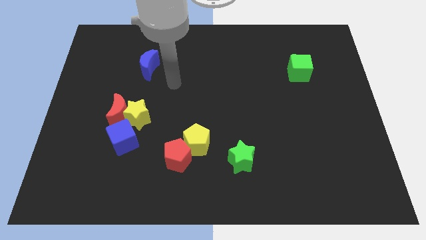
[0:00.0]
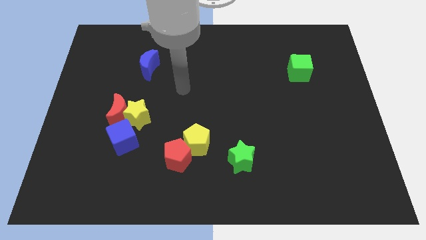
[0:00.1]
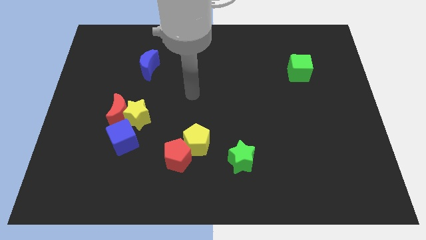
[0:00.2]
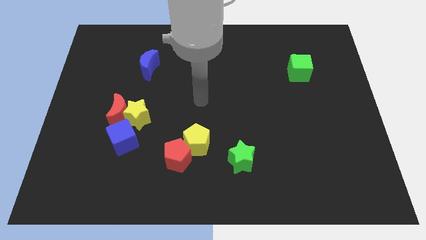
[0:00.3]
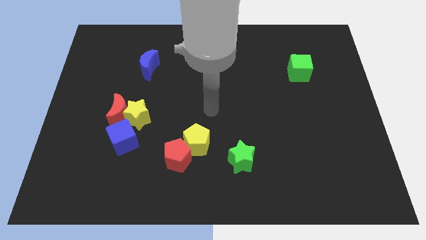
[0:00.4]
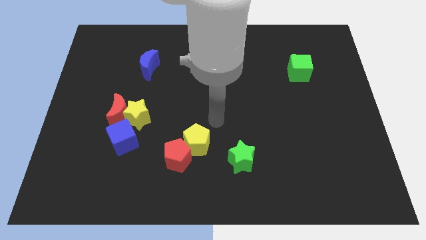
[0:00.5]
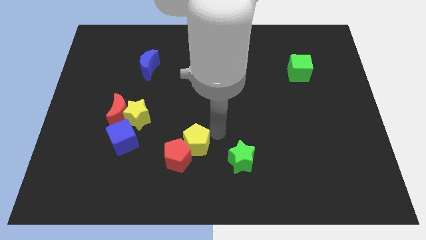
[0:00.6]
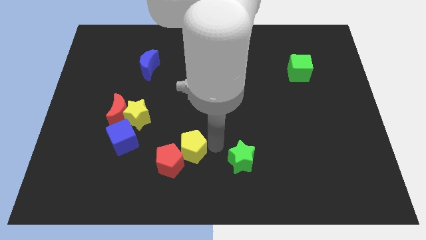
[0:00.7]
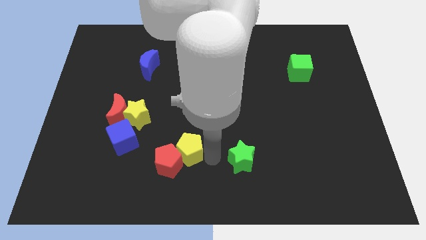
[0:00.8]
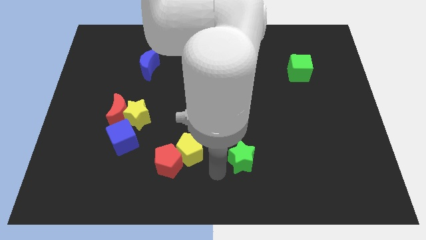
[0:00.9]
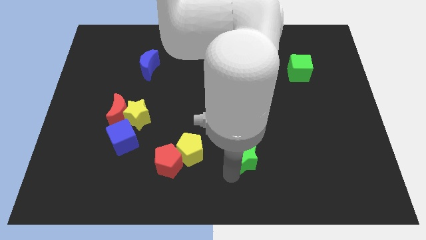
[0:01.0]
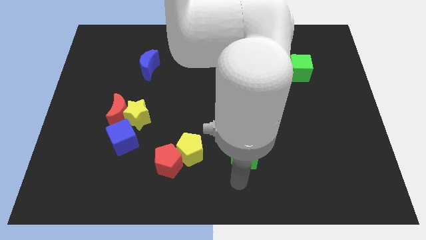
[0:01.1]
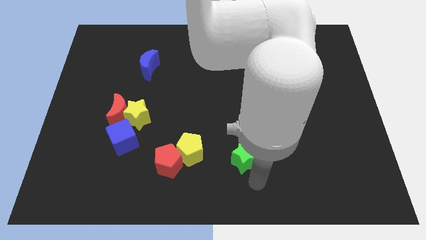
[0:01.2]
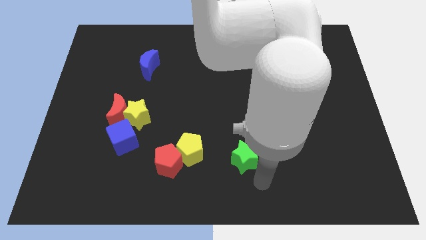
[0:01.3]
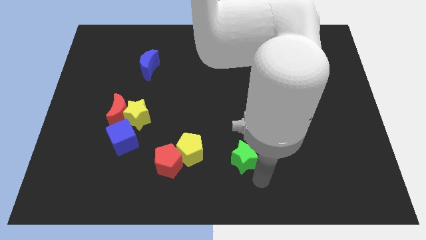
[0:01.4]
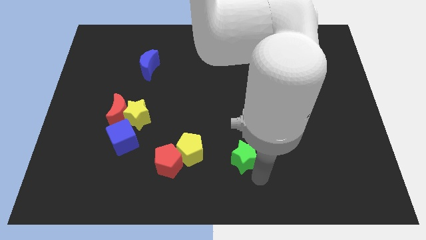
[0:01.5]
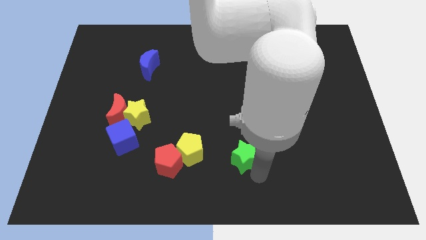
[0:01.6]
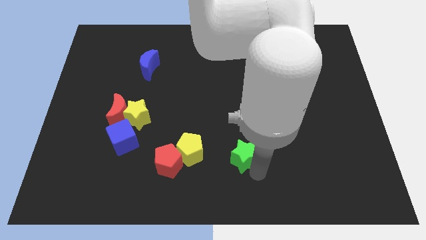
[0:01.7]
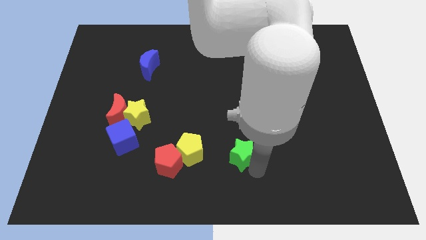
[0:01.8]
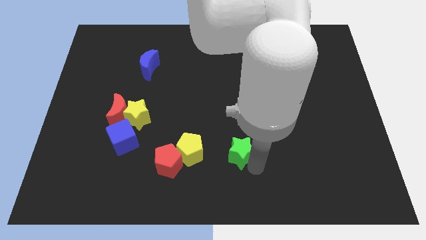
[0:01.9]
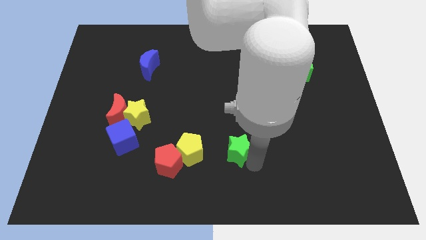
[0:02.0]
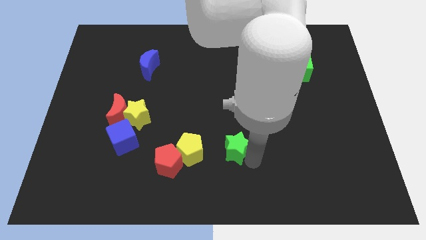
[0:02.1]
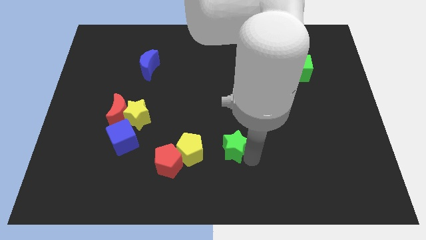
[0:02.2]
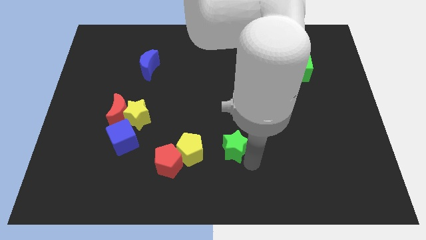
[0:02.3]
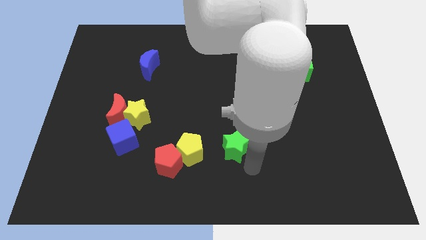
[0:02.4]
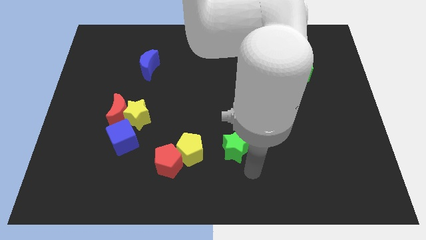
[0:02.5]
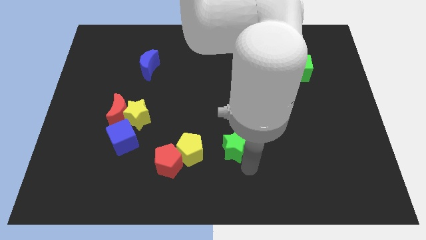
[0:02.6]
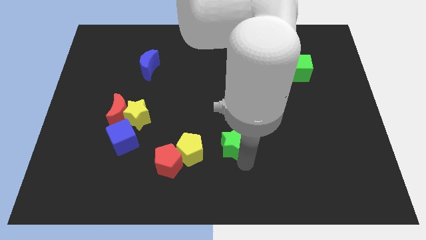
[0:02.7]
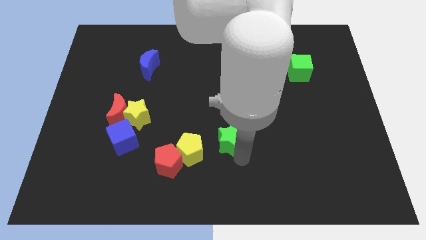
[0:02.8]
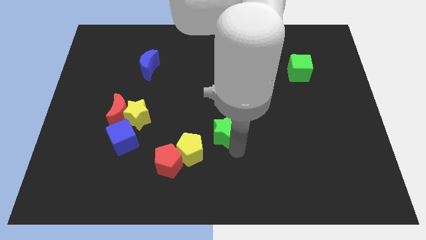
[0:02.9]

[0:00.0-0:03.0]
slightly push the green star upwards and left

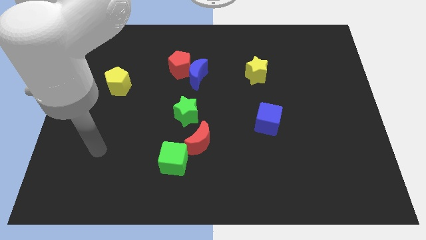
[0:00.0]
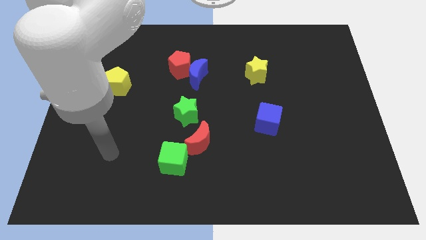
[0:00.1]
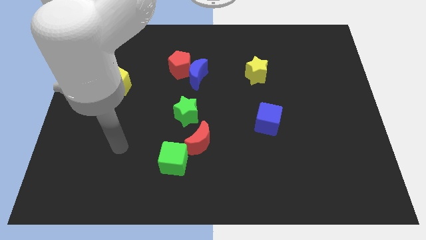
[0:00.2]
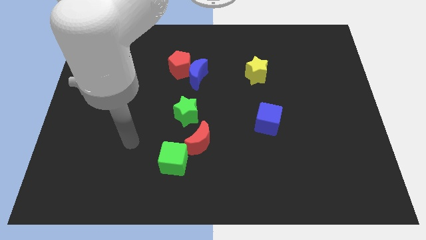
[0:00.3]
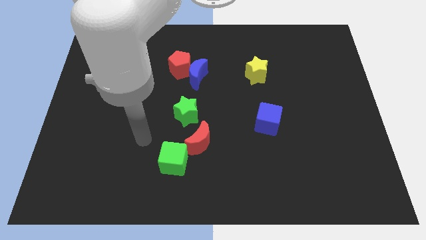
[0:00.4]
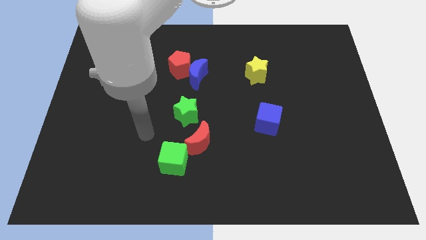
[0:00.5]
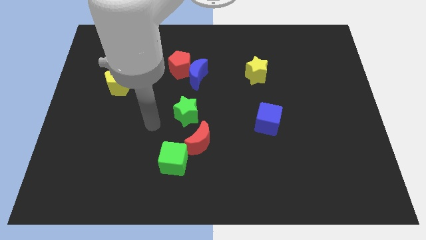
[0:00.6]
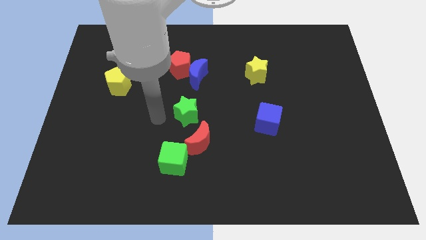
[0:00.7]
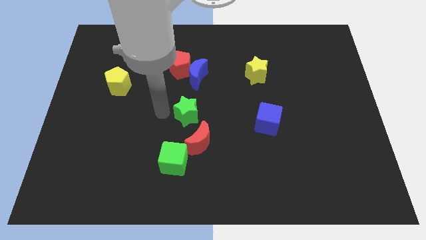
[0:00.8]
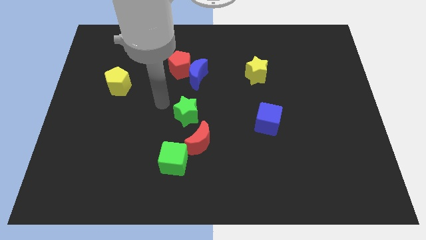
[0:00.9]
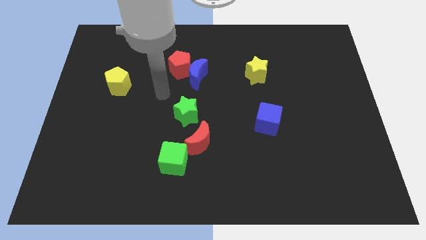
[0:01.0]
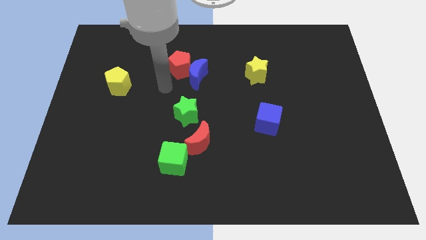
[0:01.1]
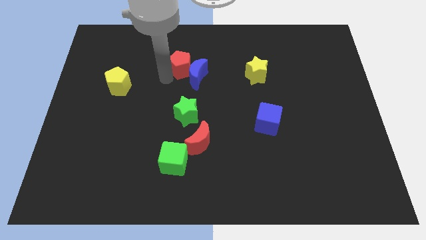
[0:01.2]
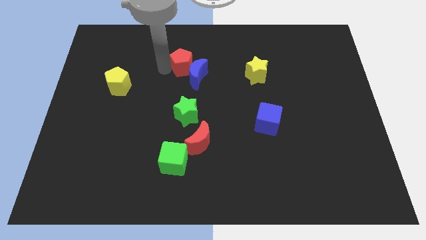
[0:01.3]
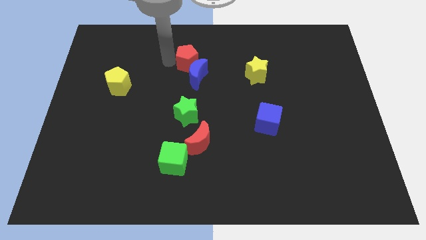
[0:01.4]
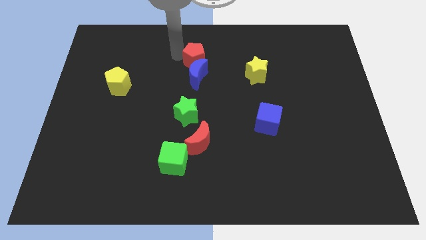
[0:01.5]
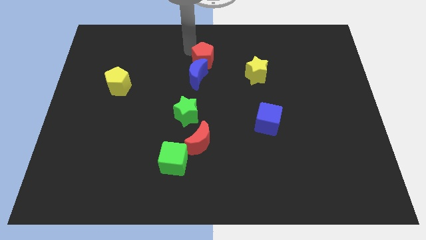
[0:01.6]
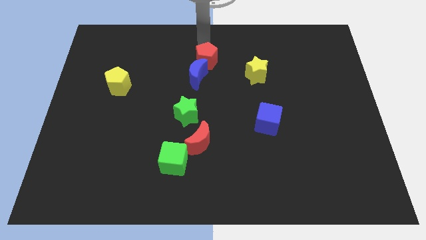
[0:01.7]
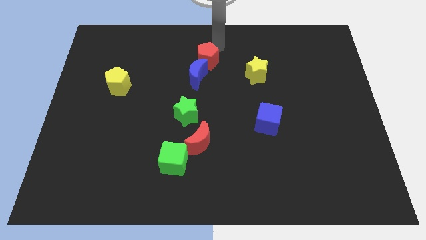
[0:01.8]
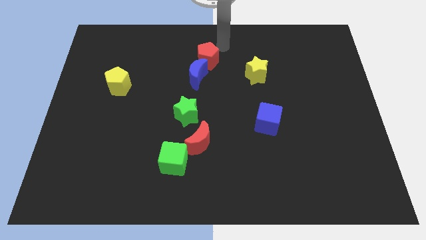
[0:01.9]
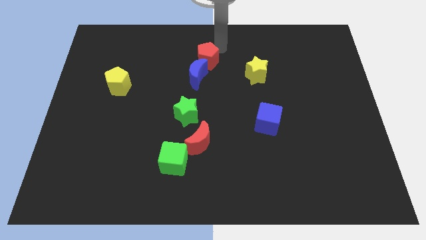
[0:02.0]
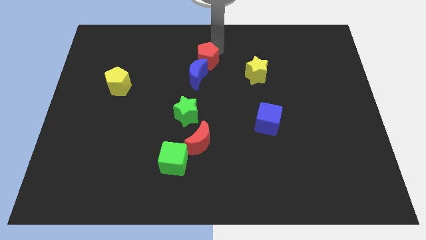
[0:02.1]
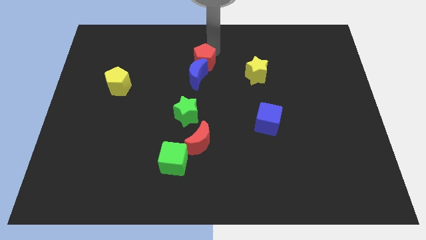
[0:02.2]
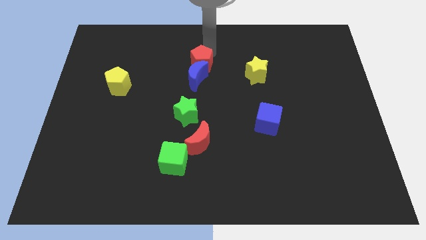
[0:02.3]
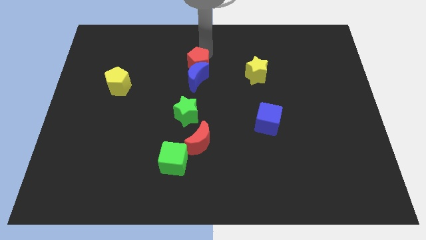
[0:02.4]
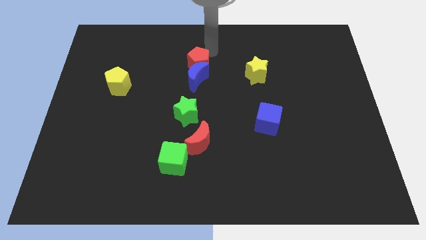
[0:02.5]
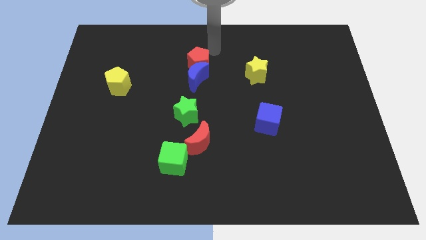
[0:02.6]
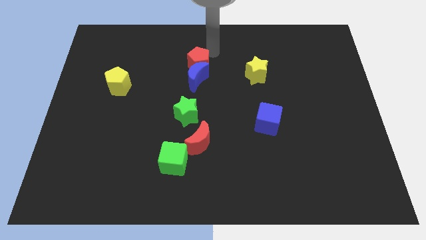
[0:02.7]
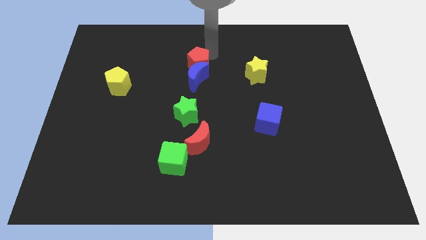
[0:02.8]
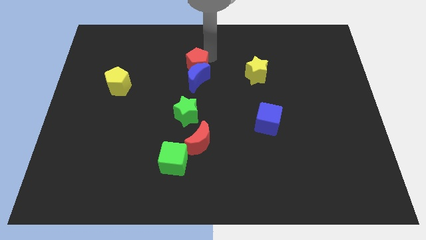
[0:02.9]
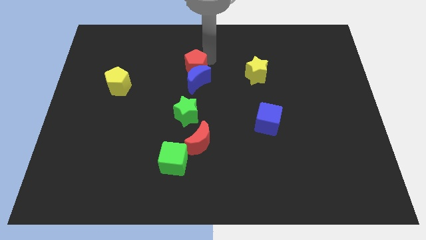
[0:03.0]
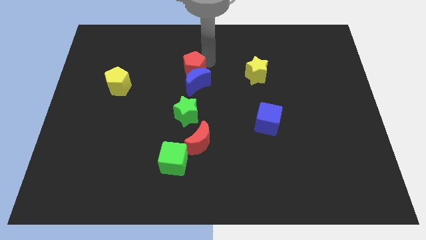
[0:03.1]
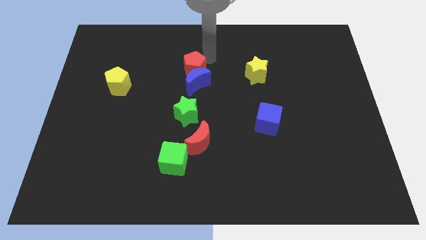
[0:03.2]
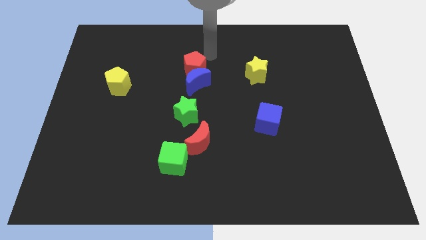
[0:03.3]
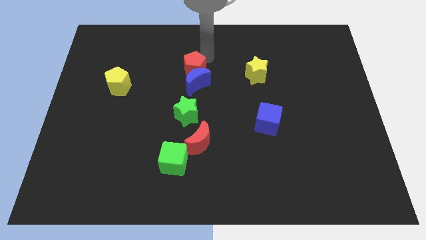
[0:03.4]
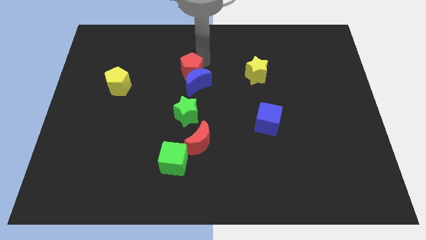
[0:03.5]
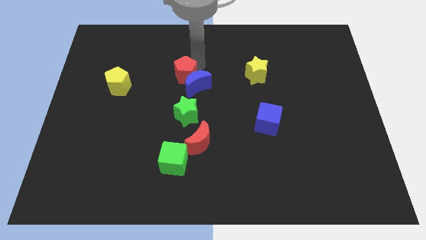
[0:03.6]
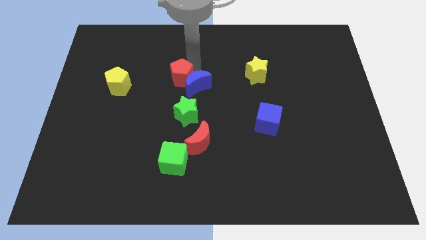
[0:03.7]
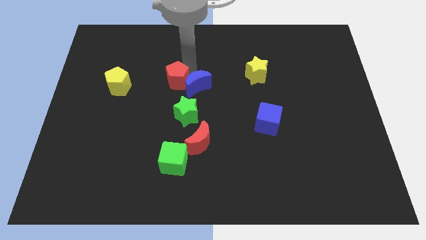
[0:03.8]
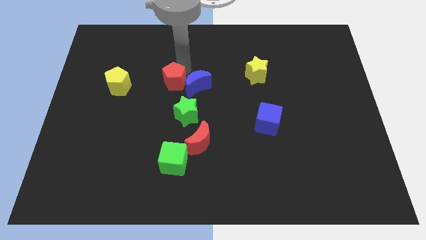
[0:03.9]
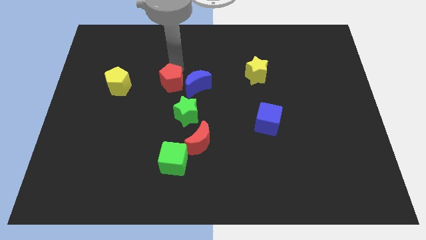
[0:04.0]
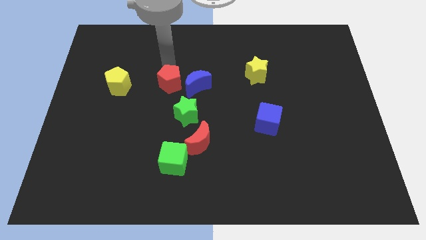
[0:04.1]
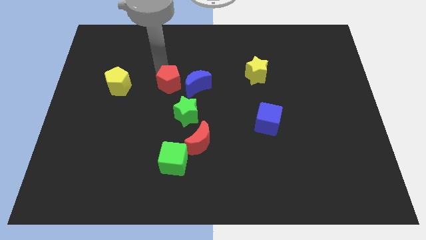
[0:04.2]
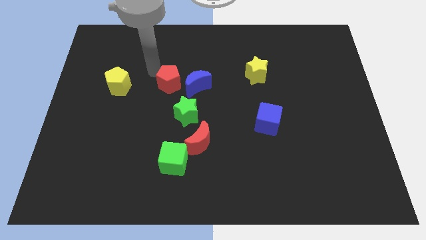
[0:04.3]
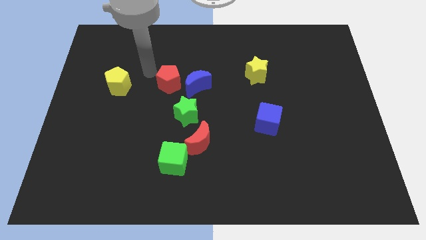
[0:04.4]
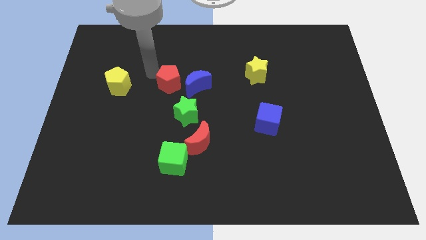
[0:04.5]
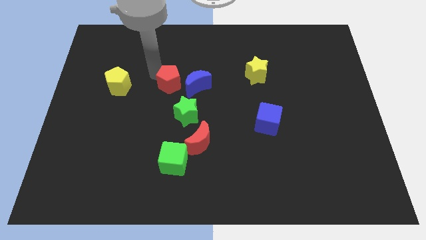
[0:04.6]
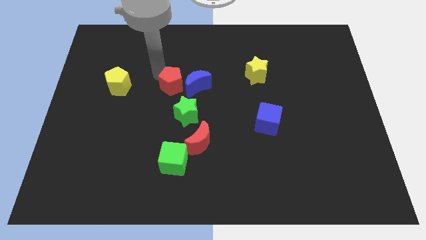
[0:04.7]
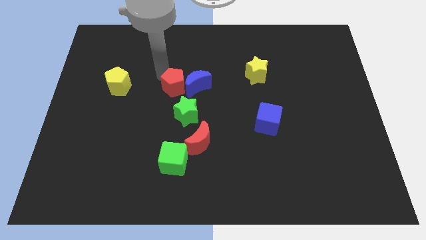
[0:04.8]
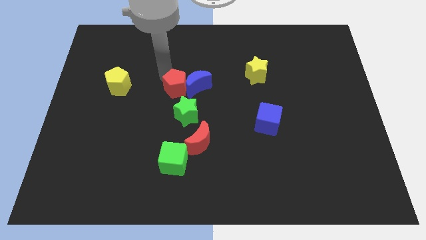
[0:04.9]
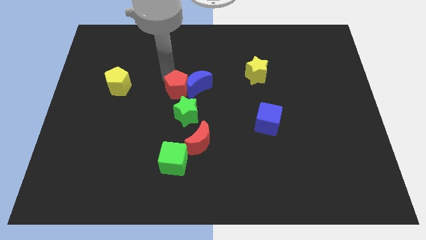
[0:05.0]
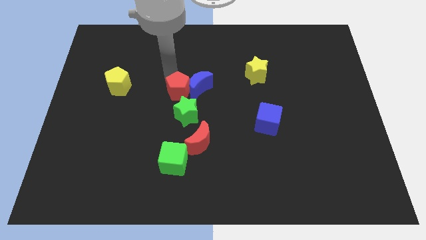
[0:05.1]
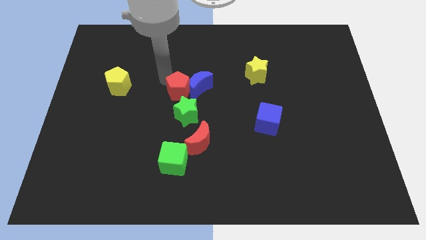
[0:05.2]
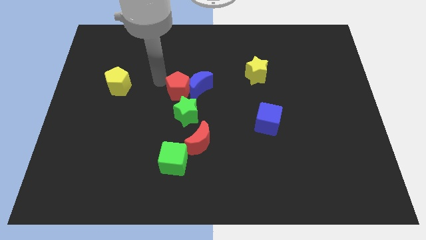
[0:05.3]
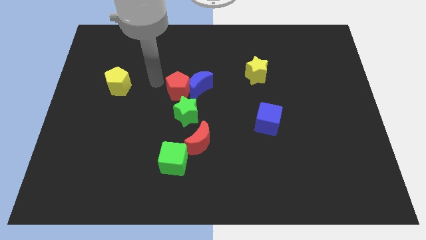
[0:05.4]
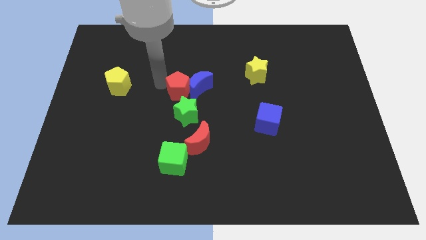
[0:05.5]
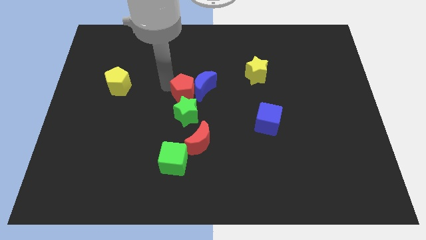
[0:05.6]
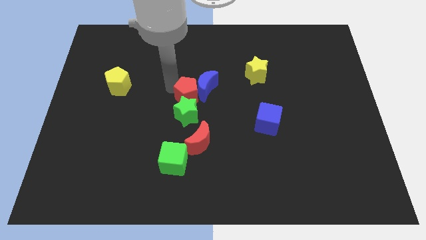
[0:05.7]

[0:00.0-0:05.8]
slightly slide the red pentagon down and right diagonally
